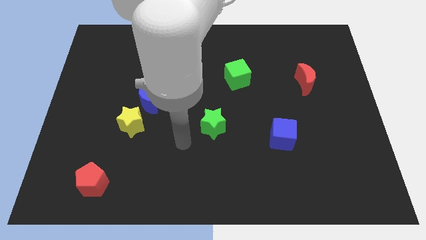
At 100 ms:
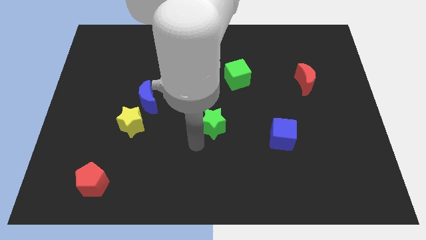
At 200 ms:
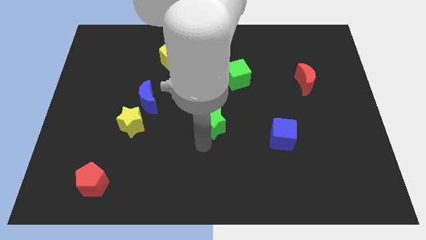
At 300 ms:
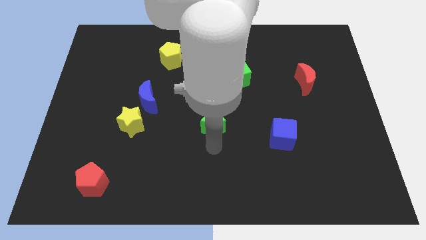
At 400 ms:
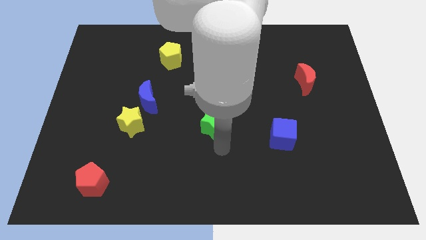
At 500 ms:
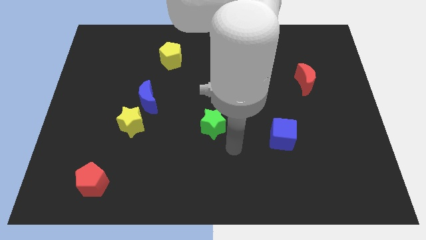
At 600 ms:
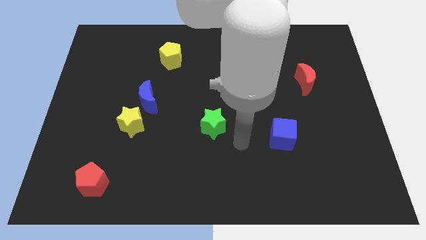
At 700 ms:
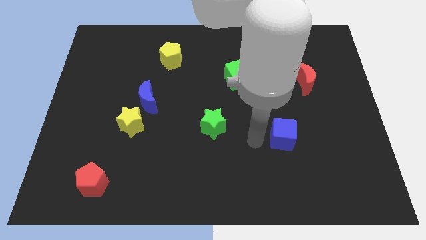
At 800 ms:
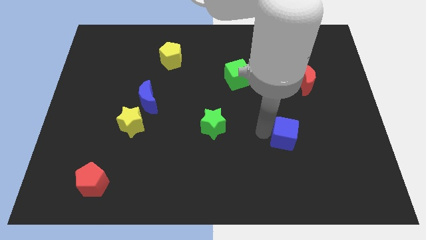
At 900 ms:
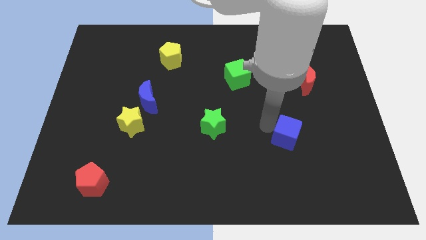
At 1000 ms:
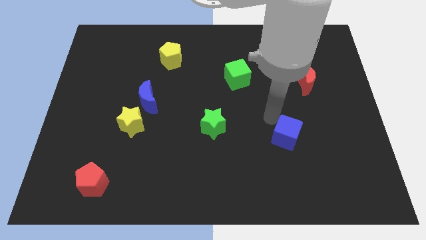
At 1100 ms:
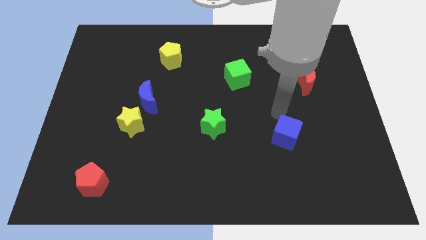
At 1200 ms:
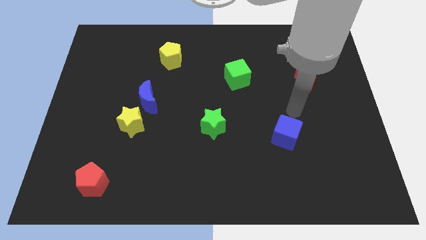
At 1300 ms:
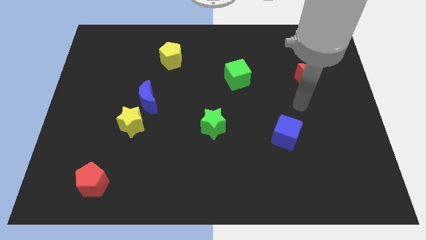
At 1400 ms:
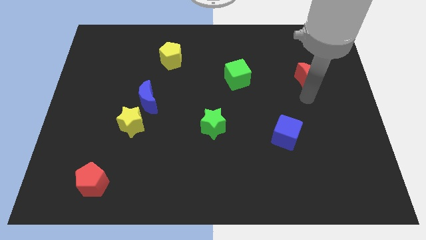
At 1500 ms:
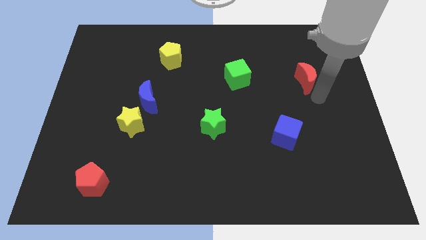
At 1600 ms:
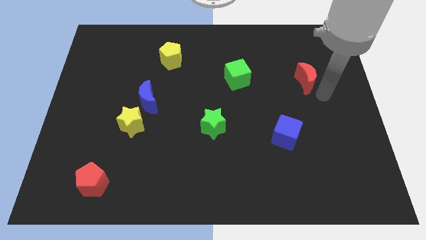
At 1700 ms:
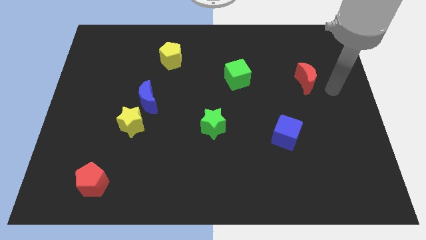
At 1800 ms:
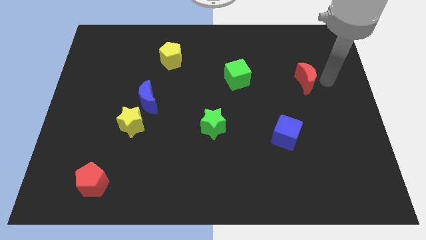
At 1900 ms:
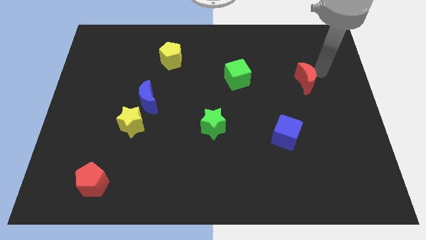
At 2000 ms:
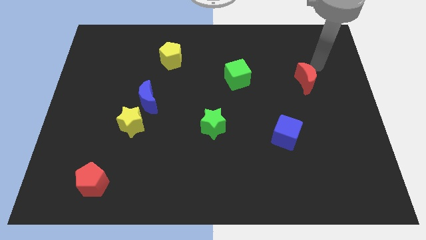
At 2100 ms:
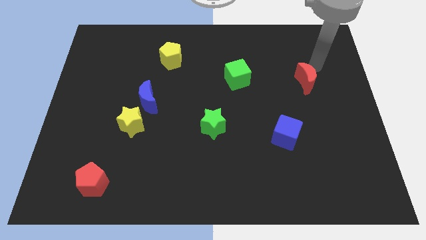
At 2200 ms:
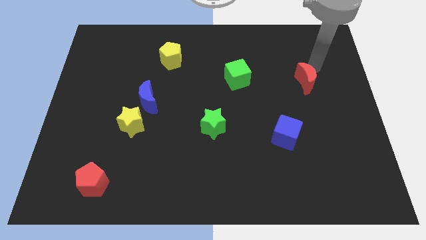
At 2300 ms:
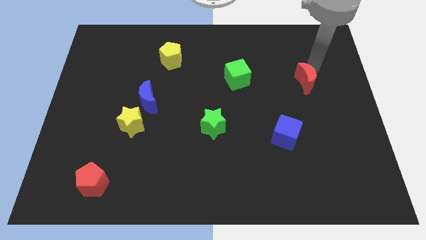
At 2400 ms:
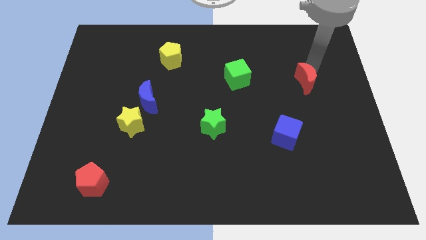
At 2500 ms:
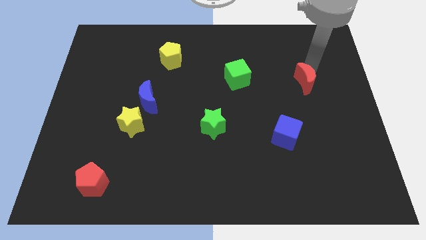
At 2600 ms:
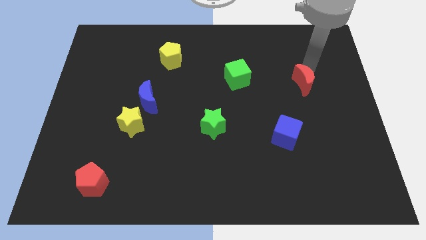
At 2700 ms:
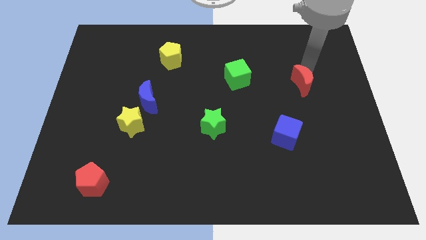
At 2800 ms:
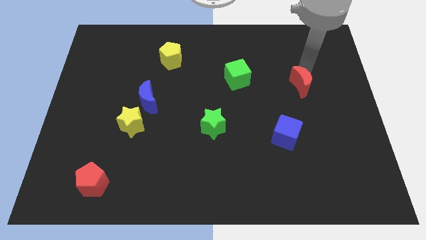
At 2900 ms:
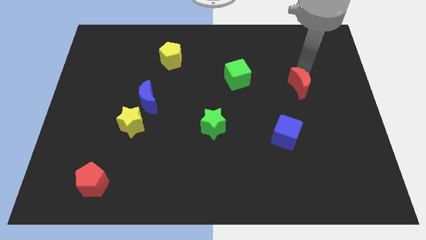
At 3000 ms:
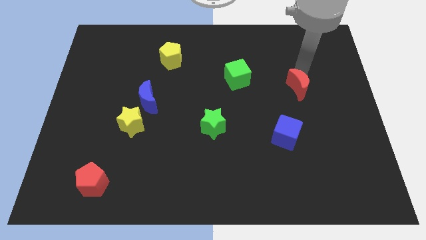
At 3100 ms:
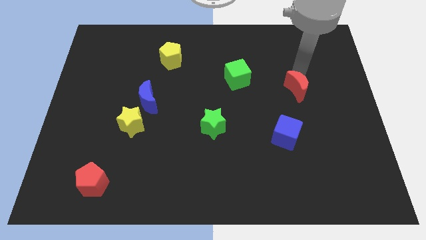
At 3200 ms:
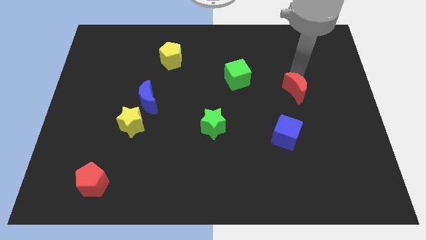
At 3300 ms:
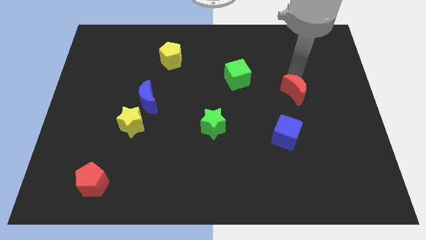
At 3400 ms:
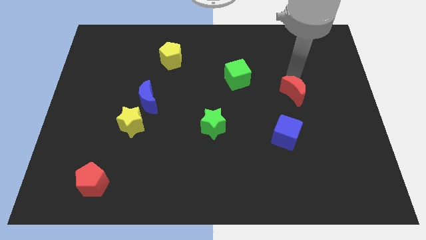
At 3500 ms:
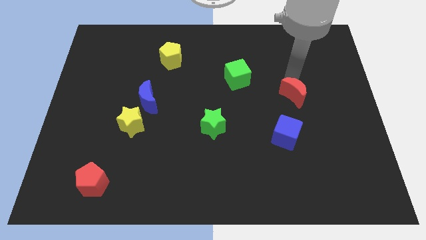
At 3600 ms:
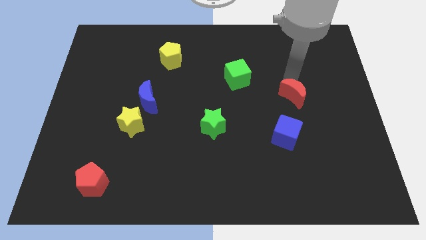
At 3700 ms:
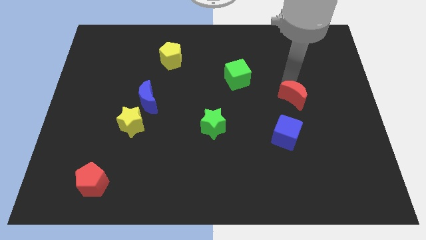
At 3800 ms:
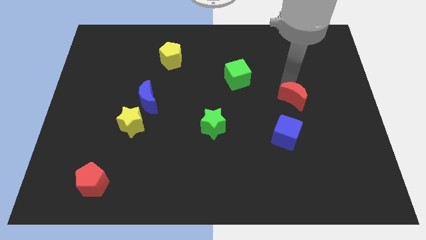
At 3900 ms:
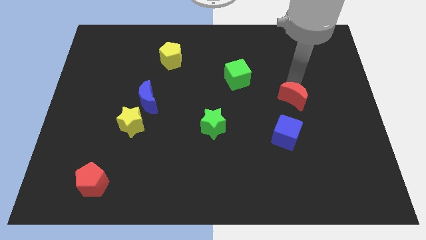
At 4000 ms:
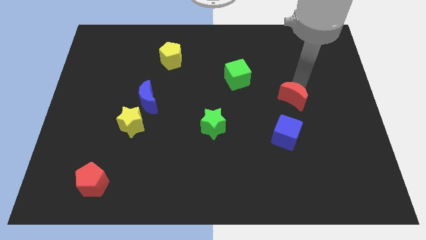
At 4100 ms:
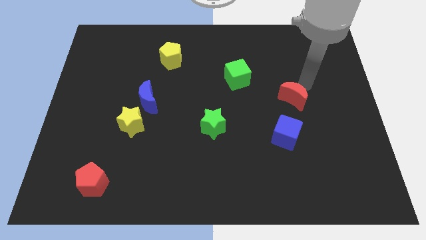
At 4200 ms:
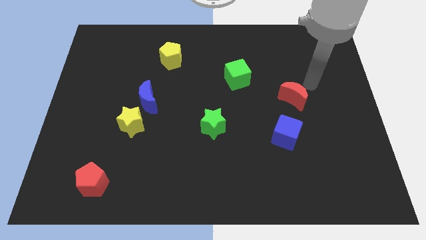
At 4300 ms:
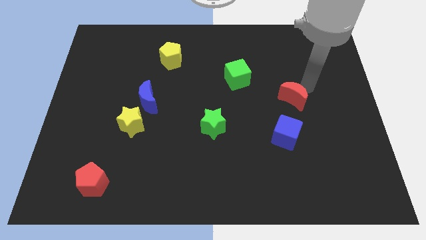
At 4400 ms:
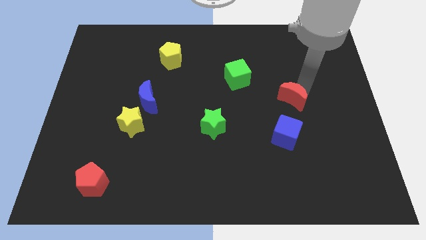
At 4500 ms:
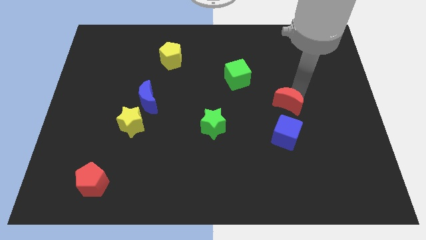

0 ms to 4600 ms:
move the red moon a little down and to the left diagonally

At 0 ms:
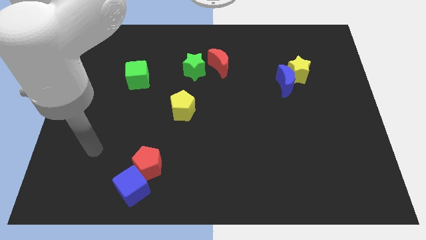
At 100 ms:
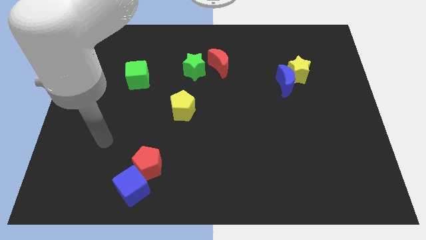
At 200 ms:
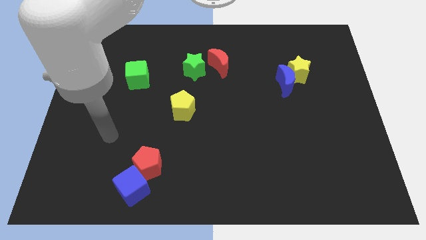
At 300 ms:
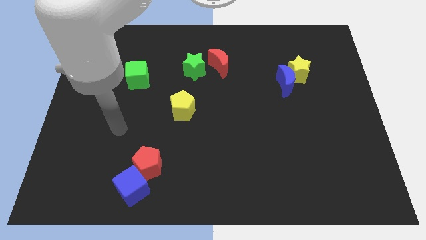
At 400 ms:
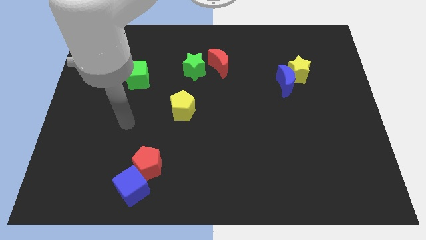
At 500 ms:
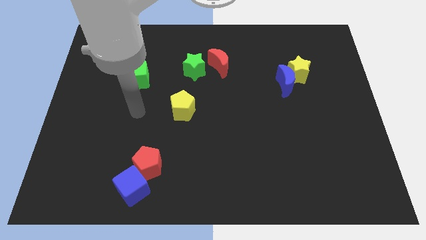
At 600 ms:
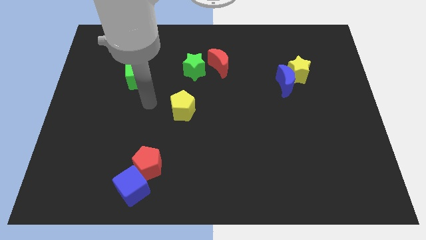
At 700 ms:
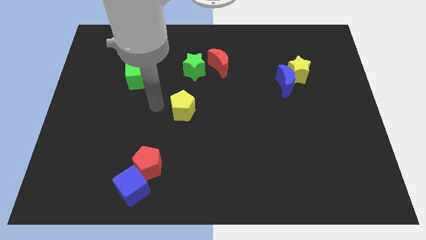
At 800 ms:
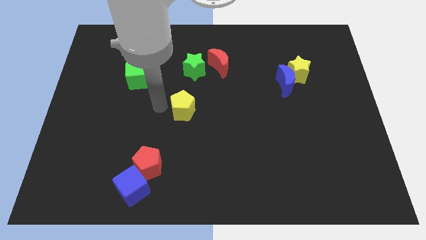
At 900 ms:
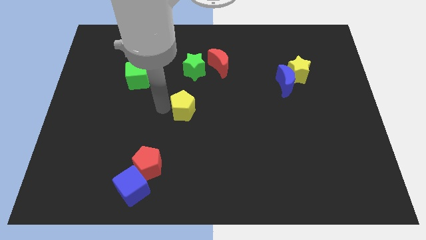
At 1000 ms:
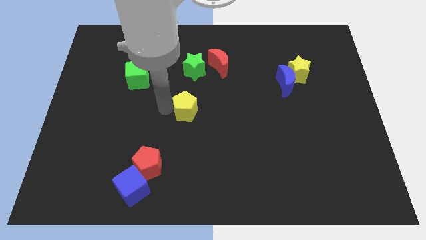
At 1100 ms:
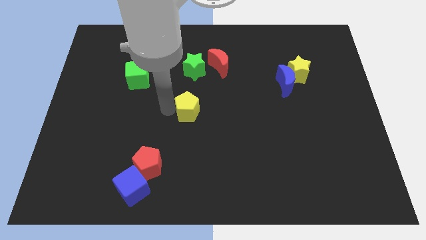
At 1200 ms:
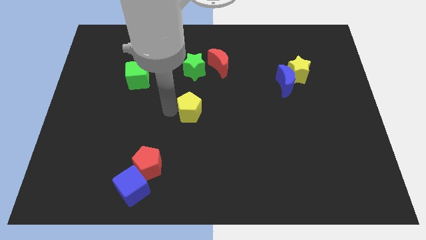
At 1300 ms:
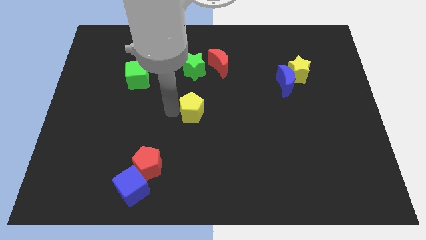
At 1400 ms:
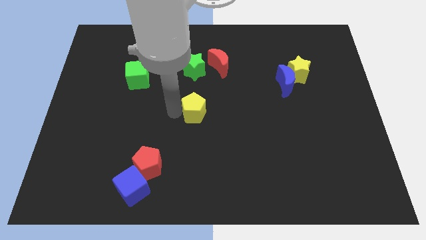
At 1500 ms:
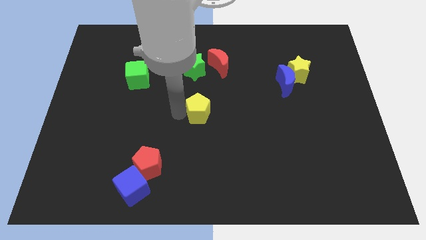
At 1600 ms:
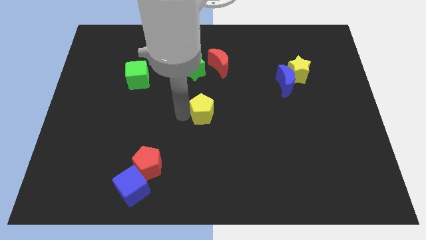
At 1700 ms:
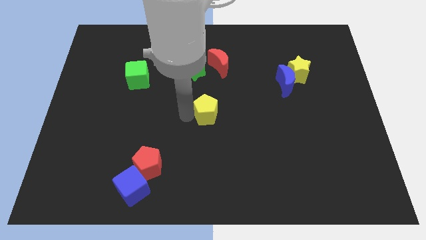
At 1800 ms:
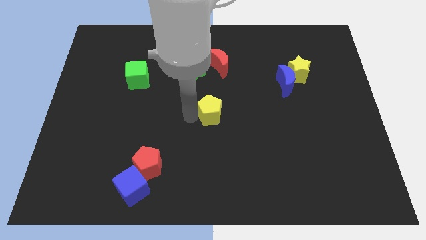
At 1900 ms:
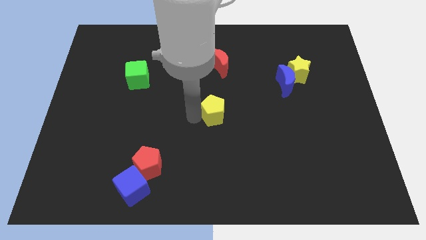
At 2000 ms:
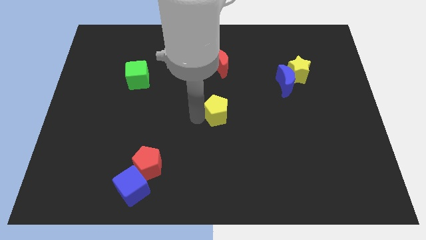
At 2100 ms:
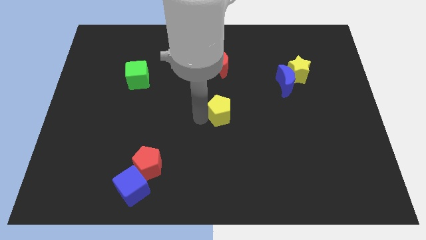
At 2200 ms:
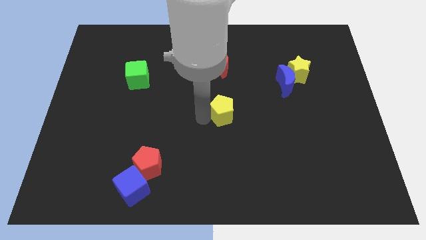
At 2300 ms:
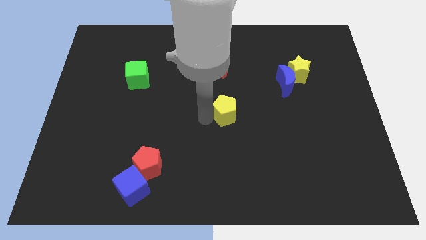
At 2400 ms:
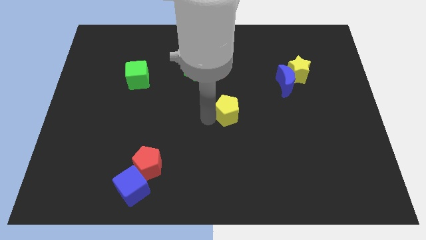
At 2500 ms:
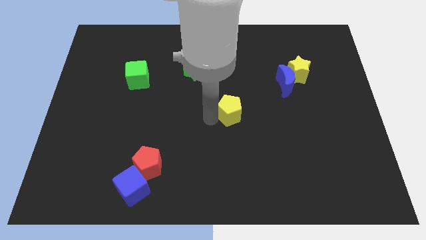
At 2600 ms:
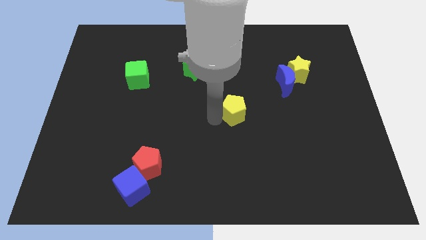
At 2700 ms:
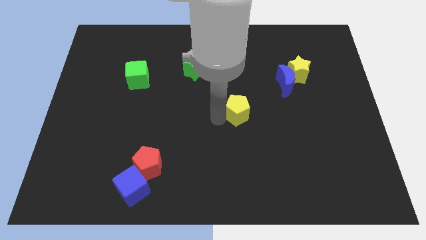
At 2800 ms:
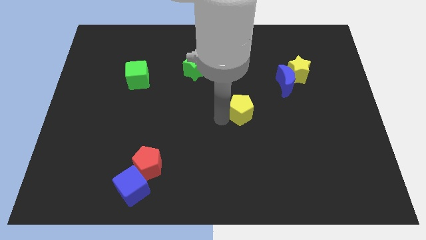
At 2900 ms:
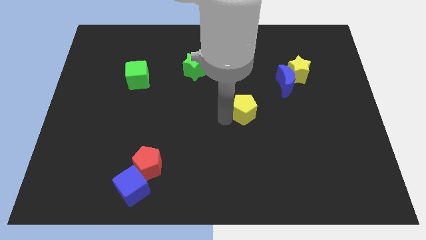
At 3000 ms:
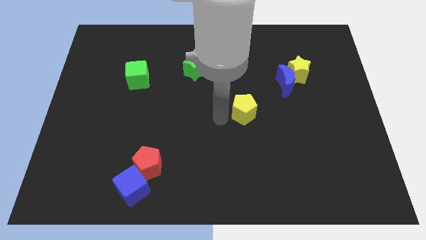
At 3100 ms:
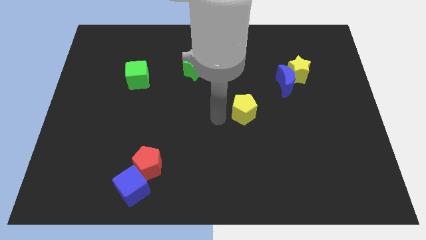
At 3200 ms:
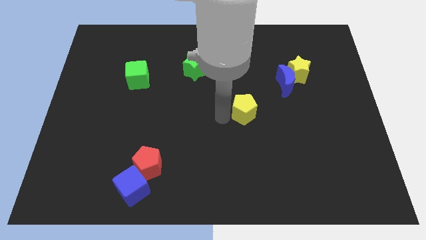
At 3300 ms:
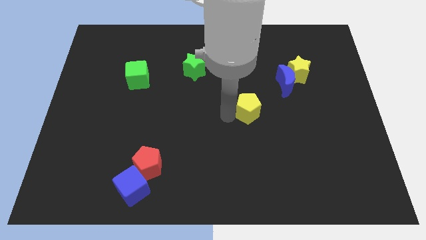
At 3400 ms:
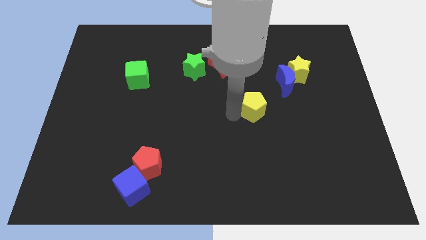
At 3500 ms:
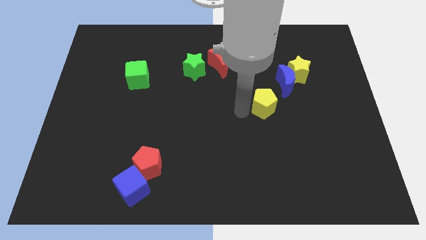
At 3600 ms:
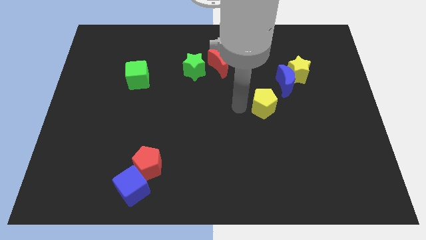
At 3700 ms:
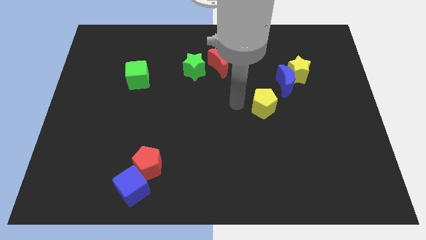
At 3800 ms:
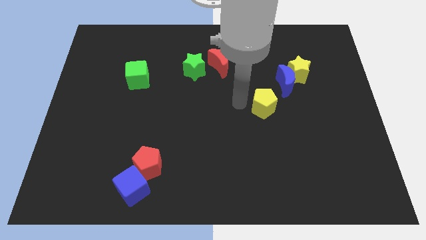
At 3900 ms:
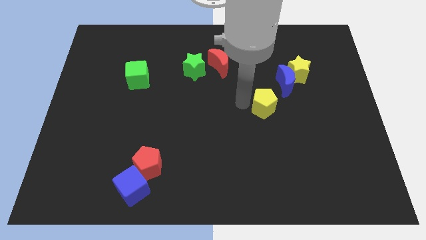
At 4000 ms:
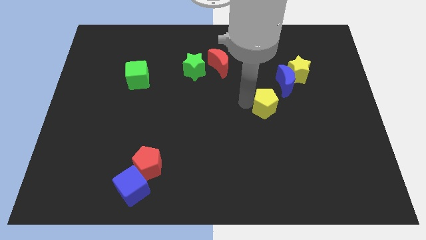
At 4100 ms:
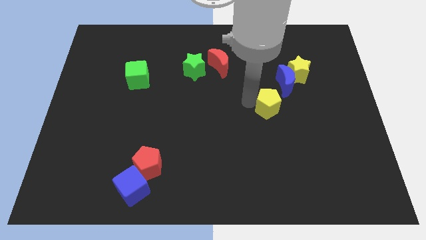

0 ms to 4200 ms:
move the yellow pentagon right
